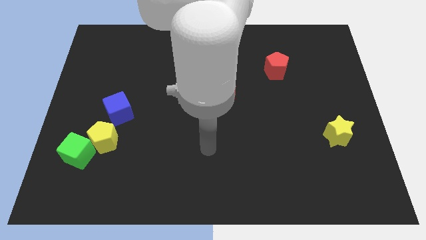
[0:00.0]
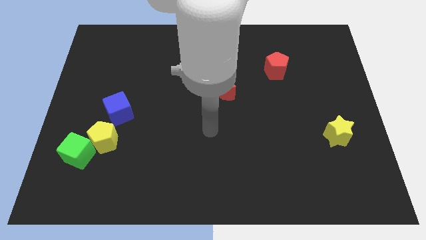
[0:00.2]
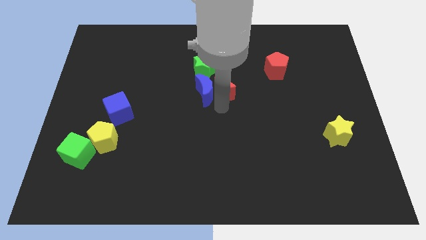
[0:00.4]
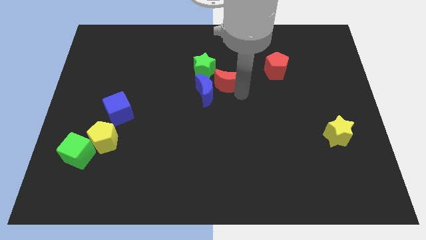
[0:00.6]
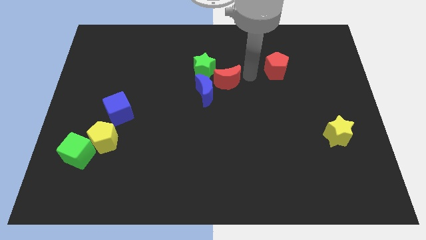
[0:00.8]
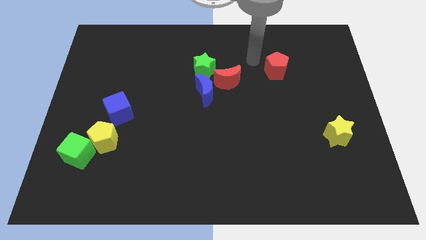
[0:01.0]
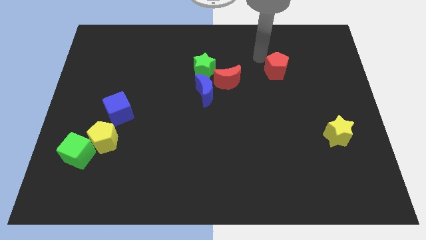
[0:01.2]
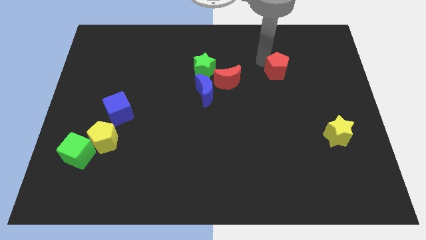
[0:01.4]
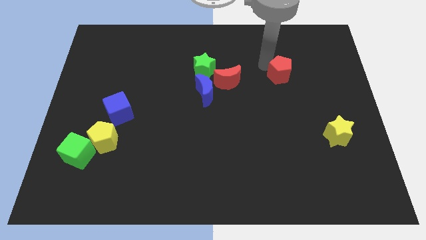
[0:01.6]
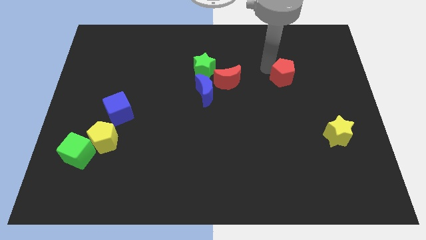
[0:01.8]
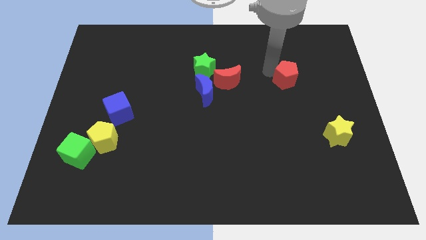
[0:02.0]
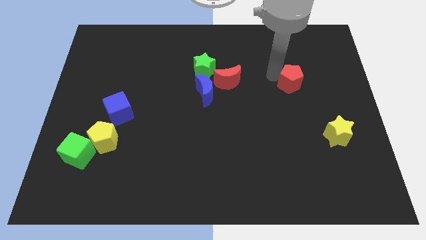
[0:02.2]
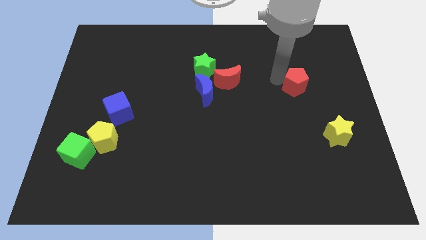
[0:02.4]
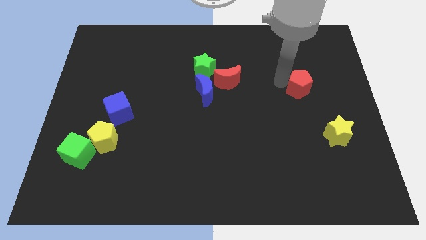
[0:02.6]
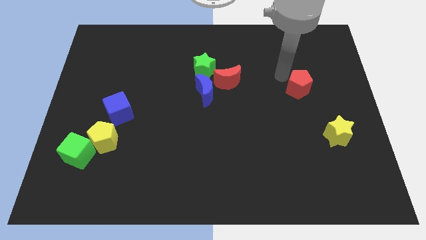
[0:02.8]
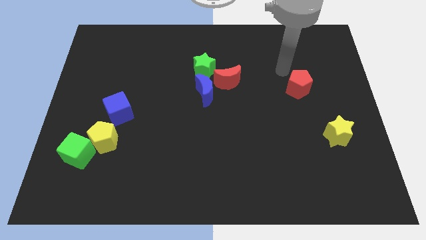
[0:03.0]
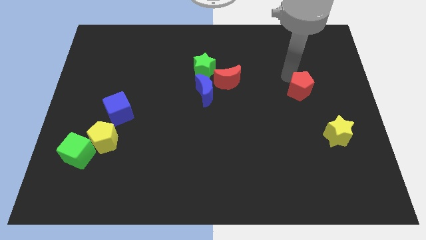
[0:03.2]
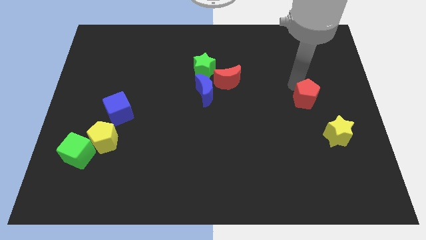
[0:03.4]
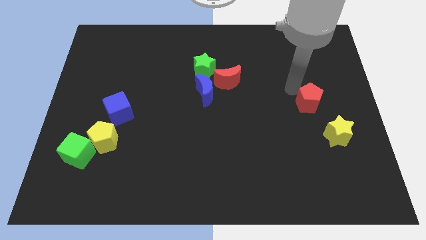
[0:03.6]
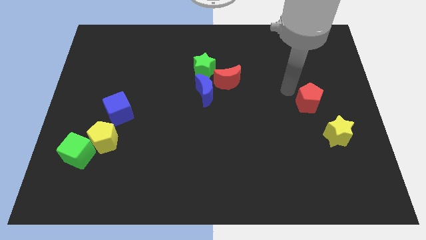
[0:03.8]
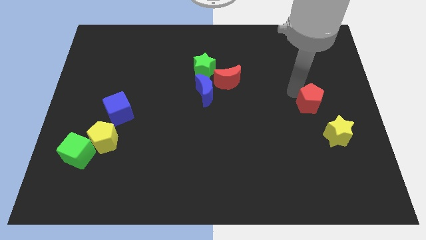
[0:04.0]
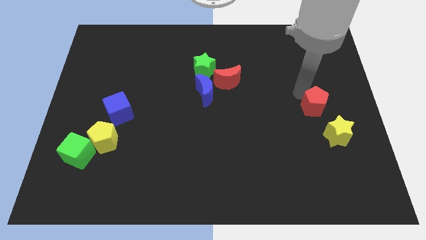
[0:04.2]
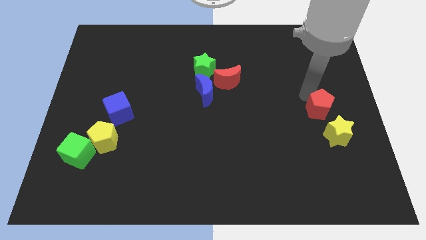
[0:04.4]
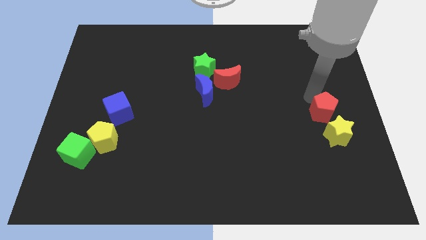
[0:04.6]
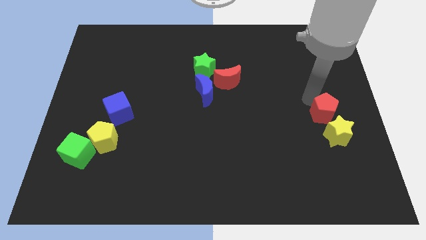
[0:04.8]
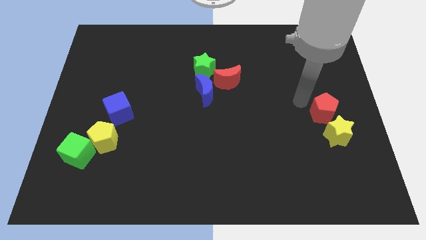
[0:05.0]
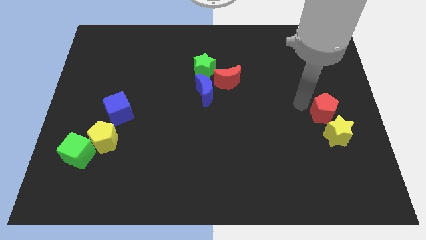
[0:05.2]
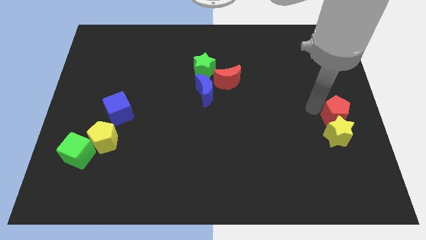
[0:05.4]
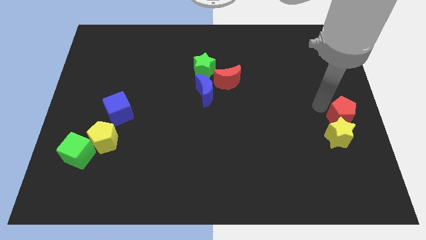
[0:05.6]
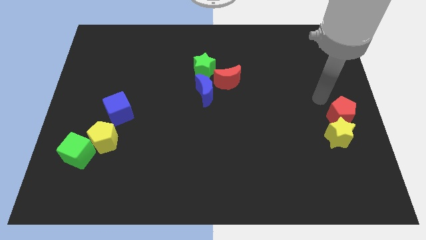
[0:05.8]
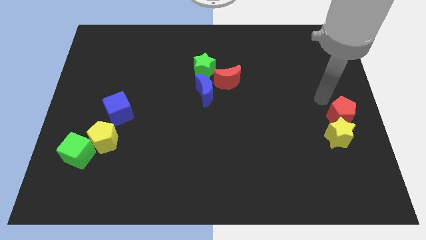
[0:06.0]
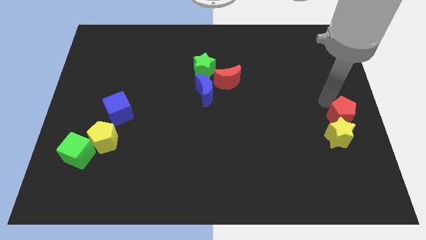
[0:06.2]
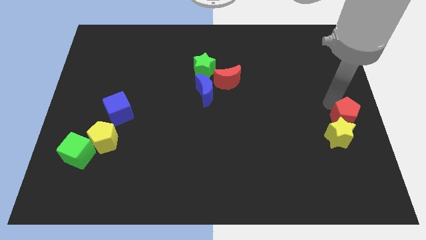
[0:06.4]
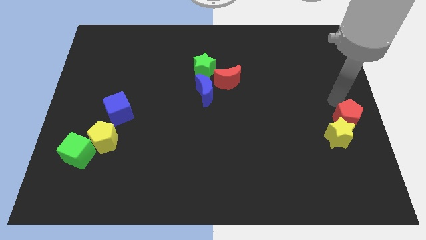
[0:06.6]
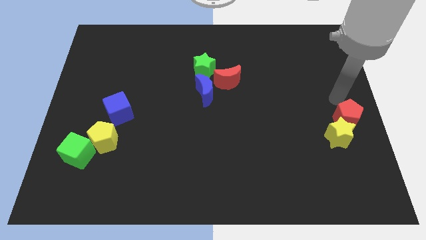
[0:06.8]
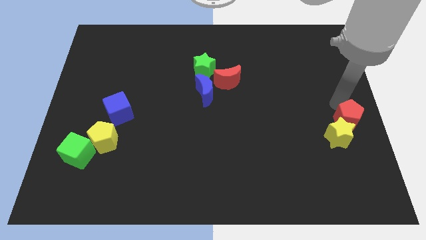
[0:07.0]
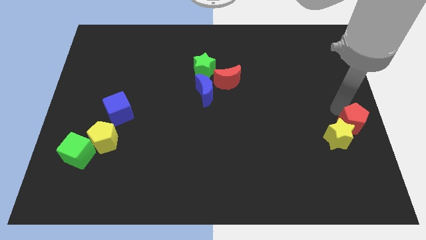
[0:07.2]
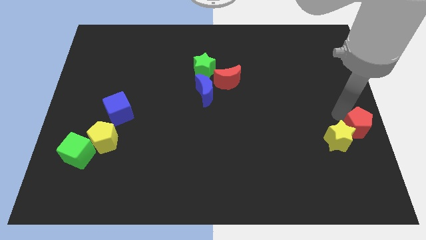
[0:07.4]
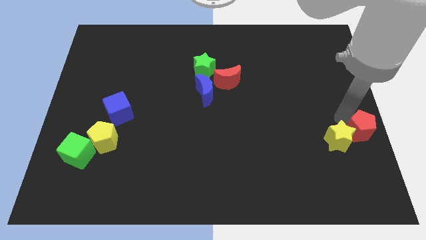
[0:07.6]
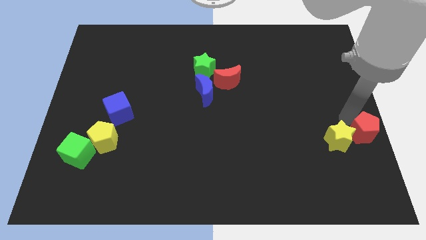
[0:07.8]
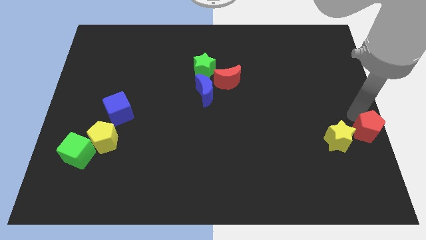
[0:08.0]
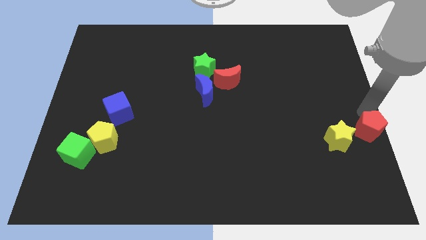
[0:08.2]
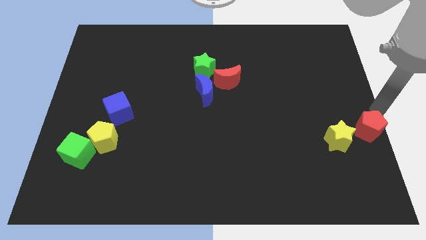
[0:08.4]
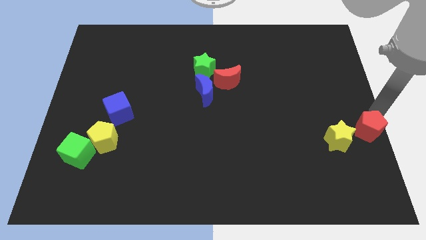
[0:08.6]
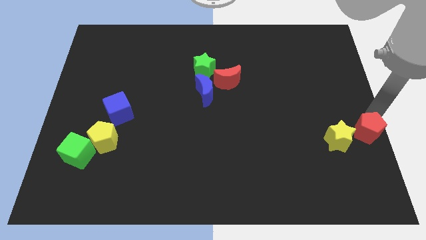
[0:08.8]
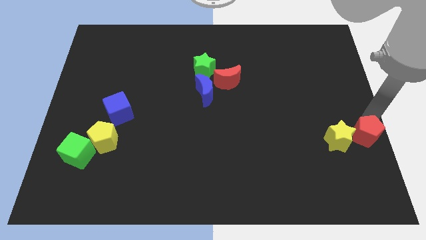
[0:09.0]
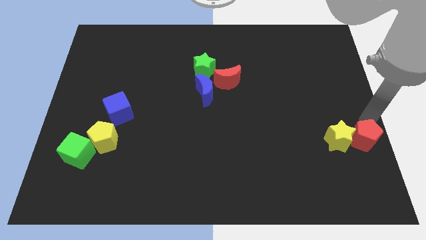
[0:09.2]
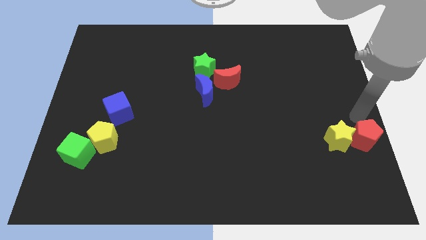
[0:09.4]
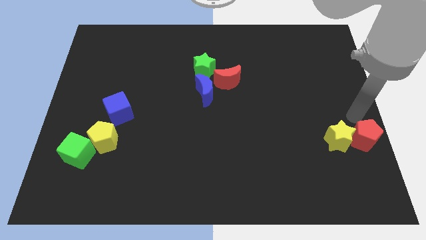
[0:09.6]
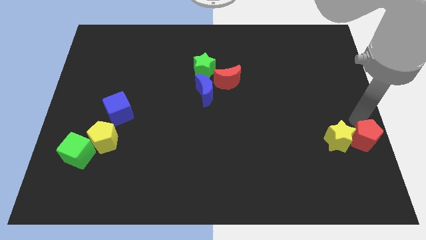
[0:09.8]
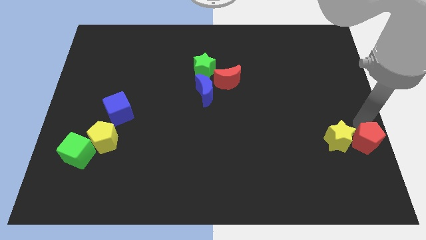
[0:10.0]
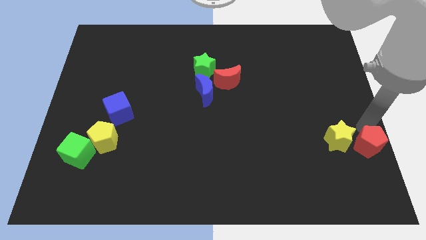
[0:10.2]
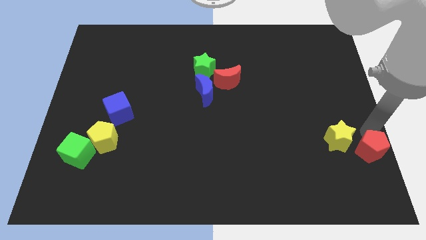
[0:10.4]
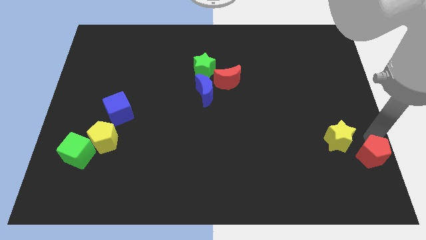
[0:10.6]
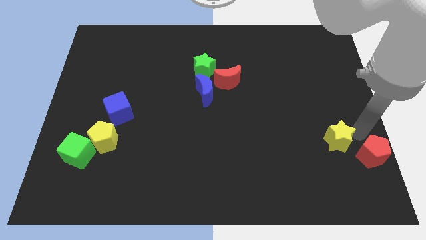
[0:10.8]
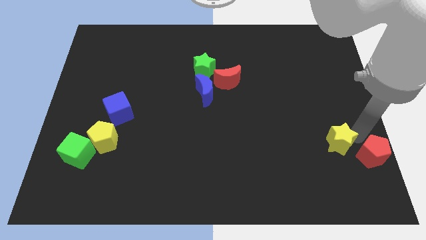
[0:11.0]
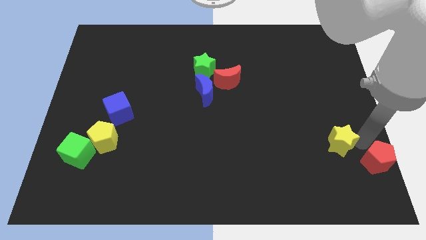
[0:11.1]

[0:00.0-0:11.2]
slide the red pentagon to the bottom right corner

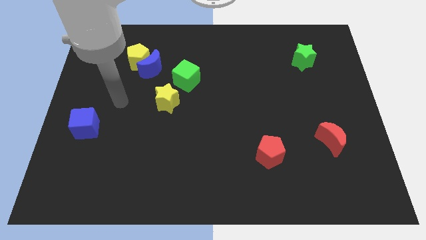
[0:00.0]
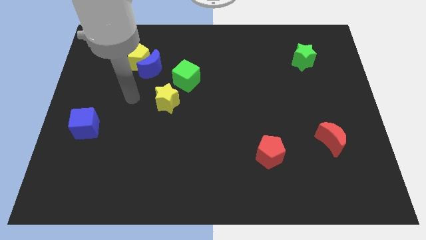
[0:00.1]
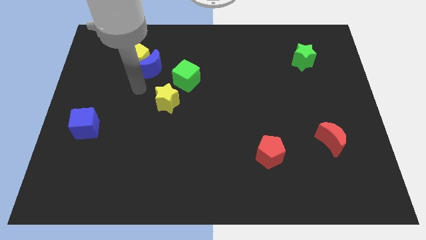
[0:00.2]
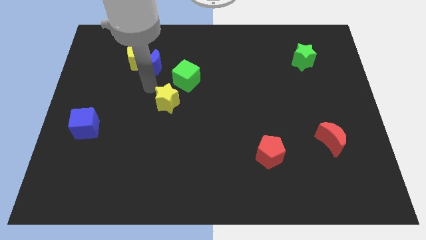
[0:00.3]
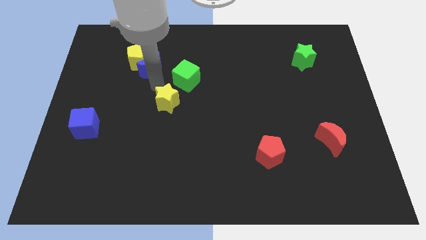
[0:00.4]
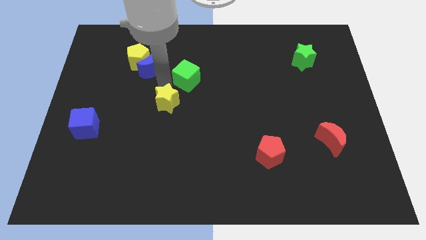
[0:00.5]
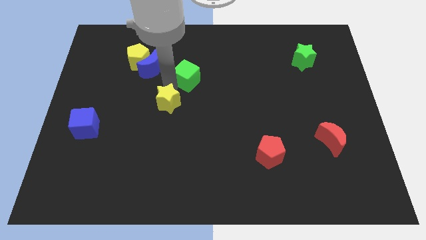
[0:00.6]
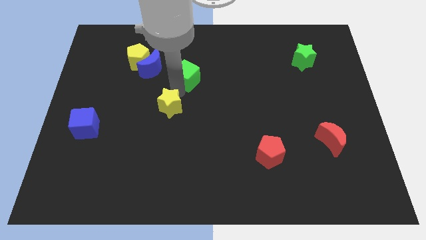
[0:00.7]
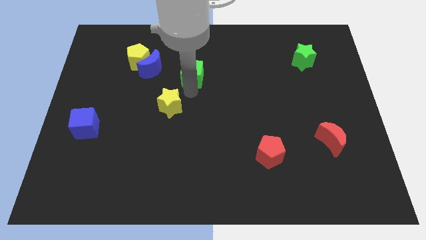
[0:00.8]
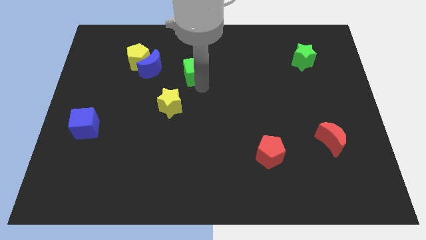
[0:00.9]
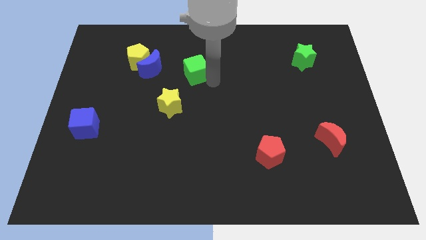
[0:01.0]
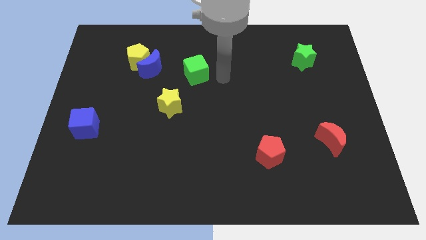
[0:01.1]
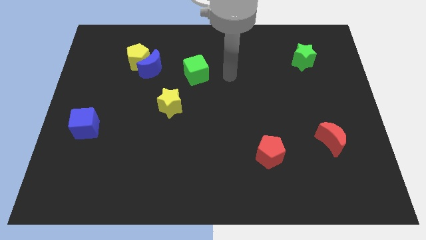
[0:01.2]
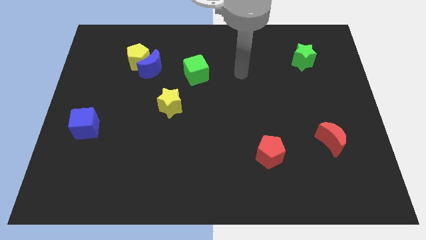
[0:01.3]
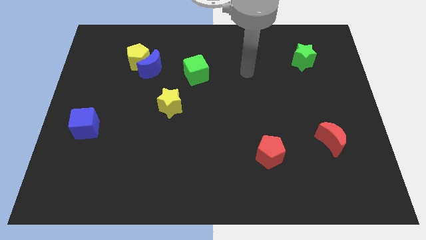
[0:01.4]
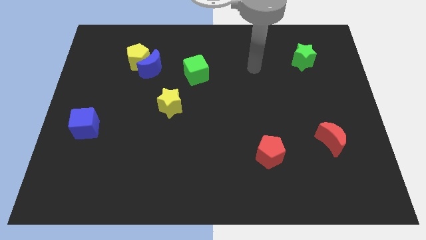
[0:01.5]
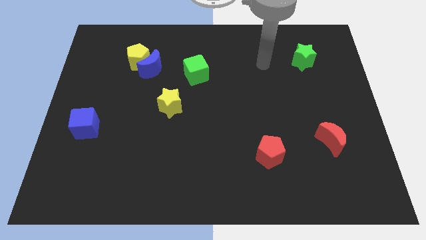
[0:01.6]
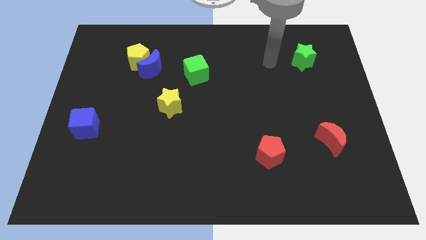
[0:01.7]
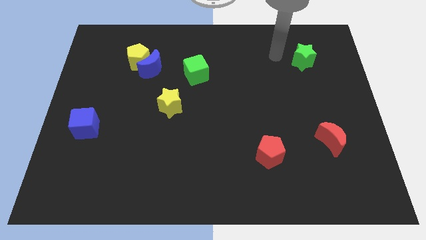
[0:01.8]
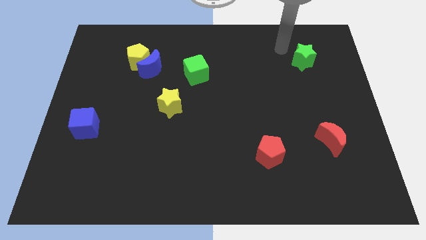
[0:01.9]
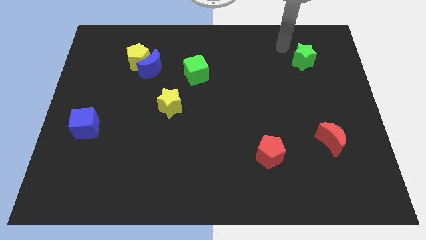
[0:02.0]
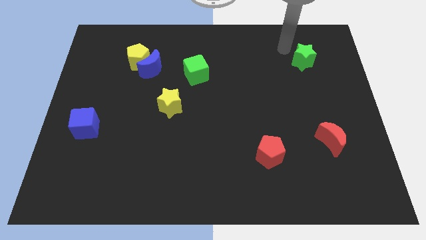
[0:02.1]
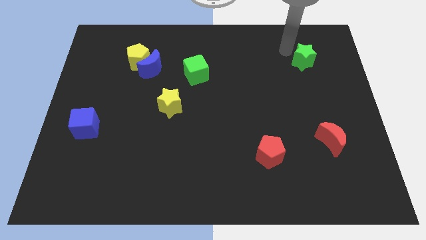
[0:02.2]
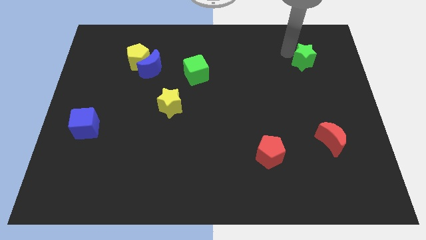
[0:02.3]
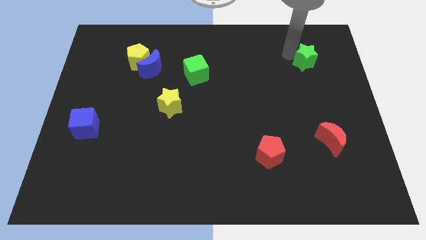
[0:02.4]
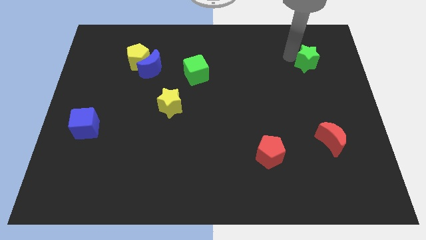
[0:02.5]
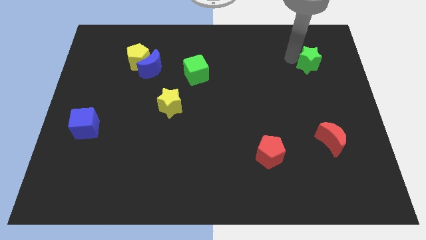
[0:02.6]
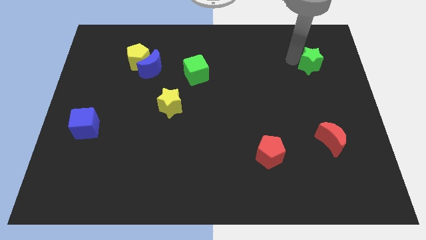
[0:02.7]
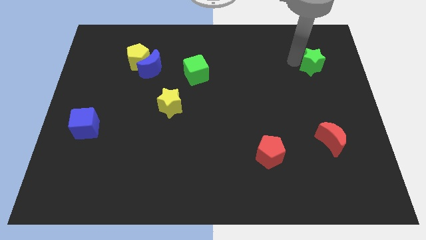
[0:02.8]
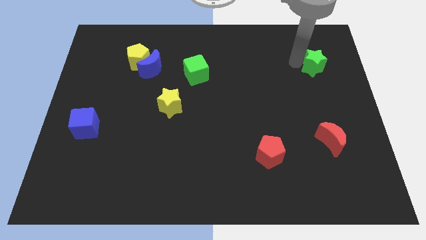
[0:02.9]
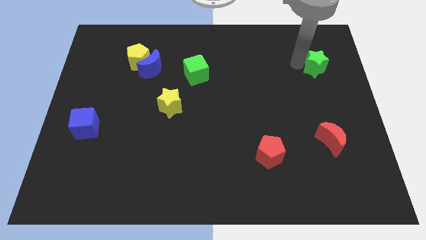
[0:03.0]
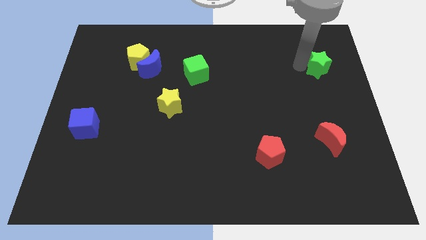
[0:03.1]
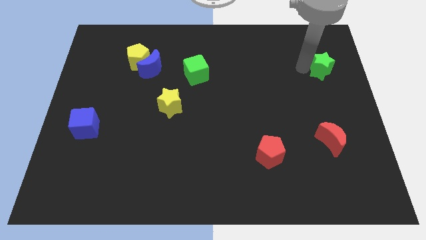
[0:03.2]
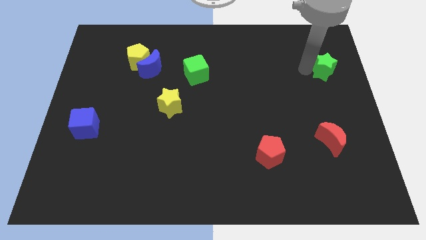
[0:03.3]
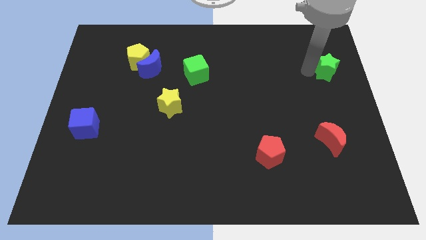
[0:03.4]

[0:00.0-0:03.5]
move the green star to the right side
